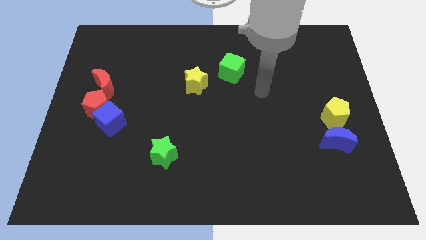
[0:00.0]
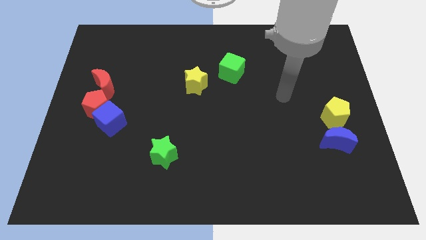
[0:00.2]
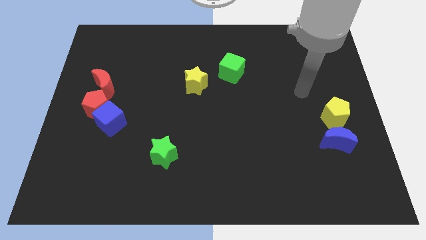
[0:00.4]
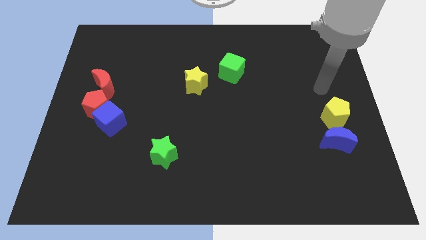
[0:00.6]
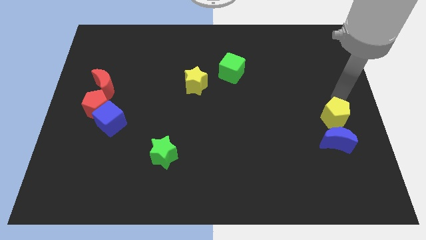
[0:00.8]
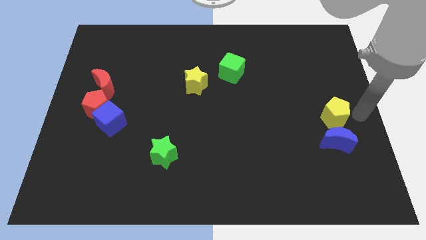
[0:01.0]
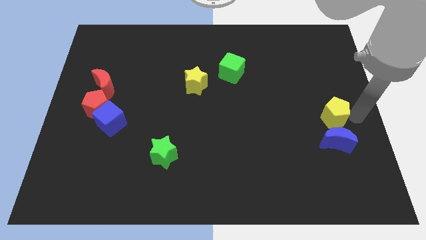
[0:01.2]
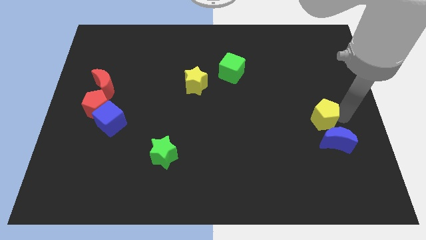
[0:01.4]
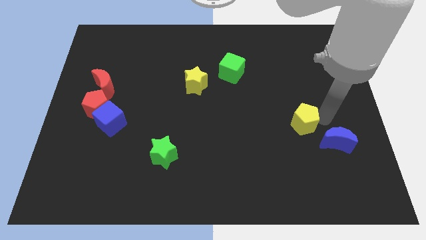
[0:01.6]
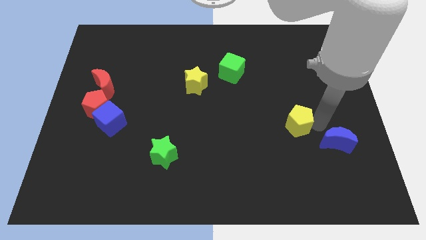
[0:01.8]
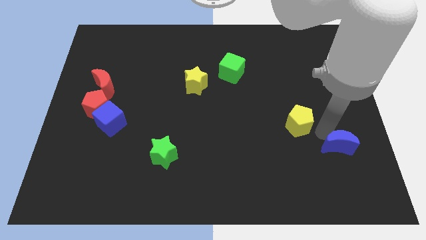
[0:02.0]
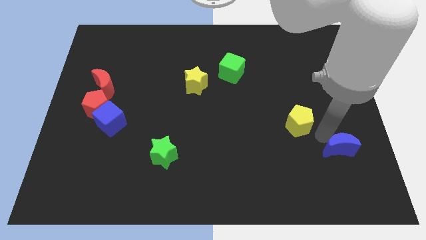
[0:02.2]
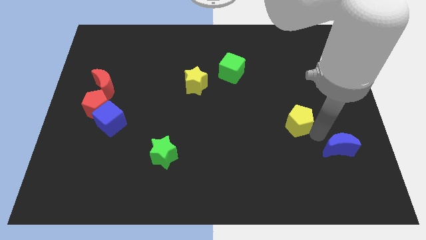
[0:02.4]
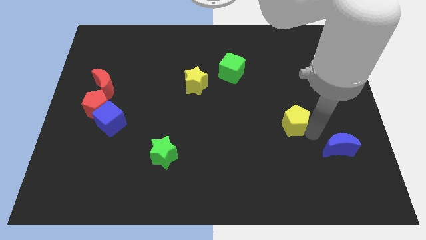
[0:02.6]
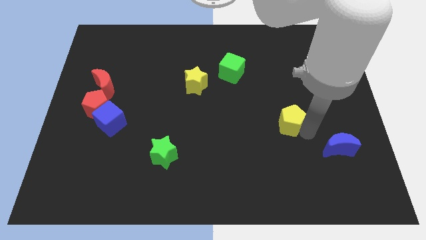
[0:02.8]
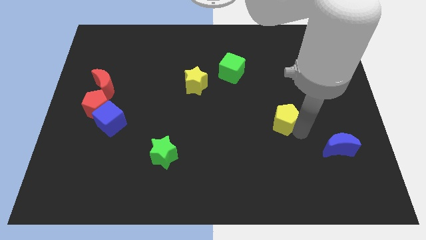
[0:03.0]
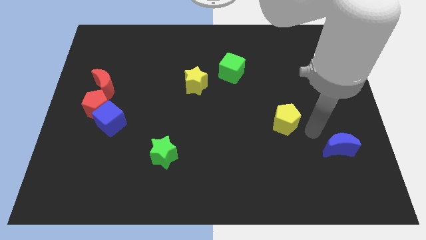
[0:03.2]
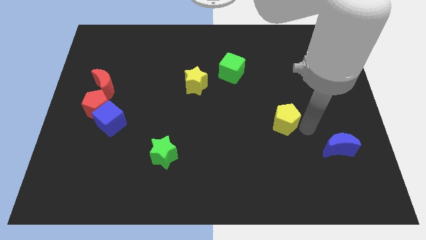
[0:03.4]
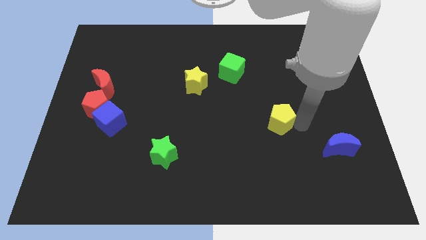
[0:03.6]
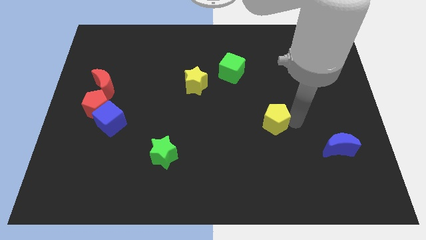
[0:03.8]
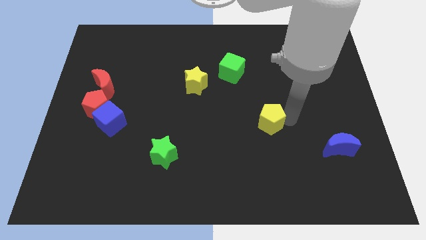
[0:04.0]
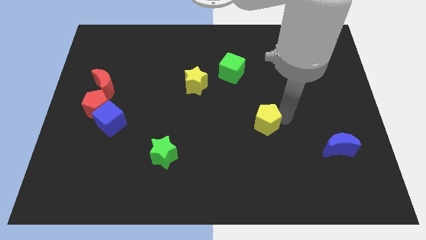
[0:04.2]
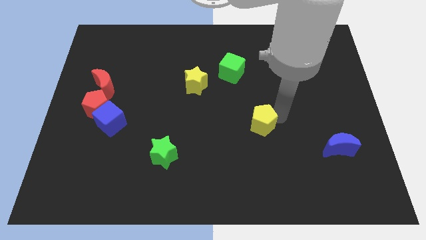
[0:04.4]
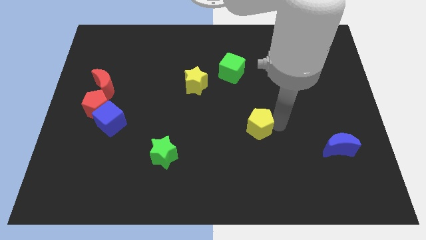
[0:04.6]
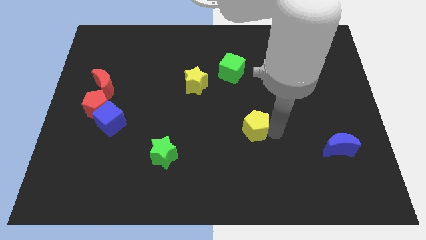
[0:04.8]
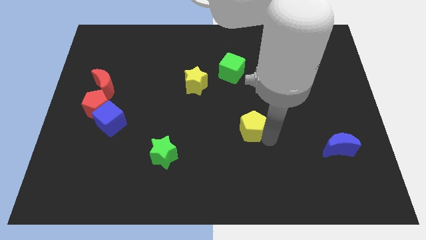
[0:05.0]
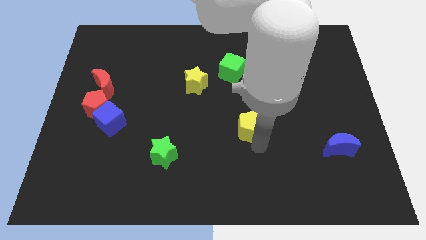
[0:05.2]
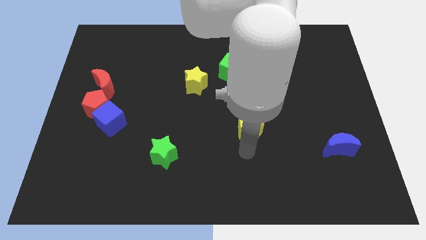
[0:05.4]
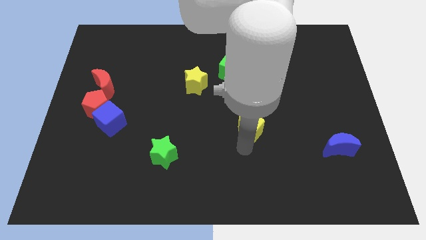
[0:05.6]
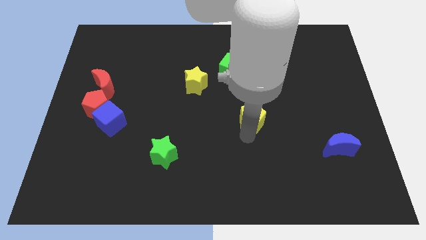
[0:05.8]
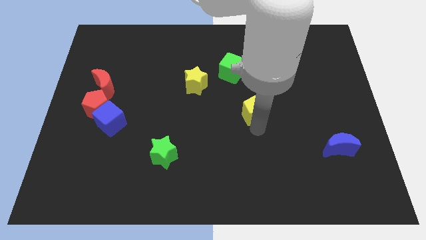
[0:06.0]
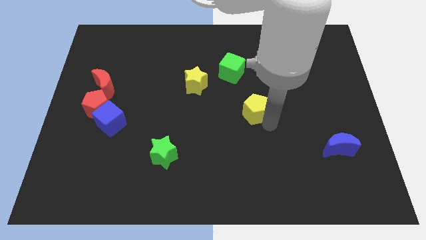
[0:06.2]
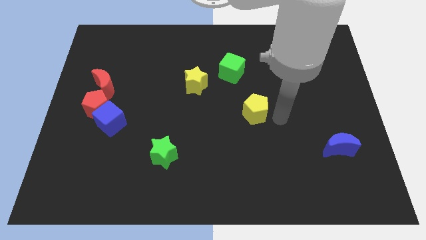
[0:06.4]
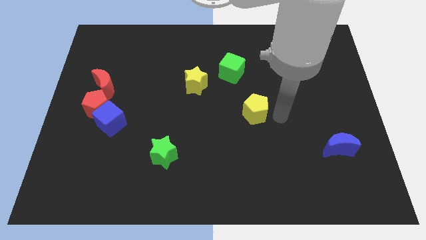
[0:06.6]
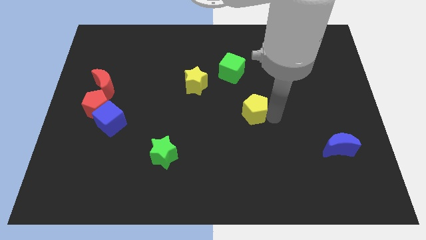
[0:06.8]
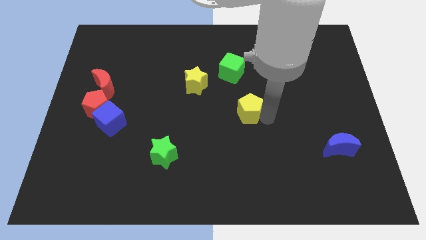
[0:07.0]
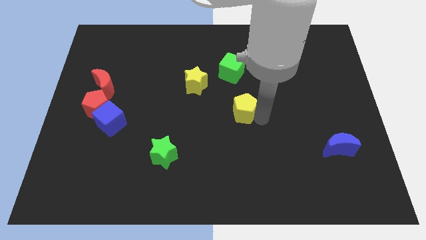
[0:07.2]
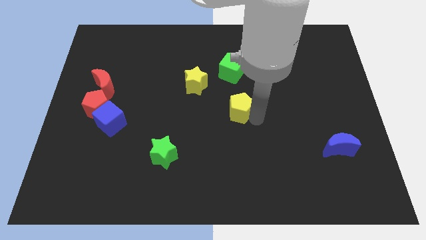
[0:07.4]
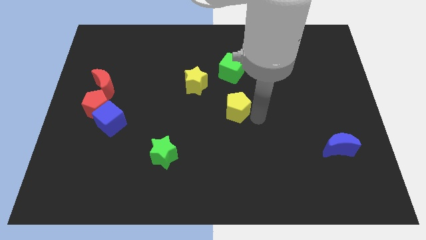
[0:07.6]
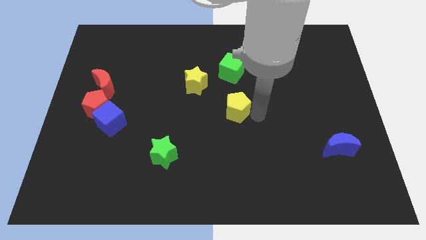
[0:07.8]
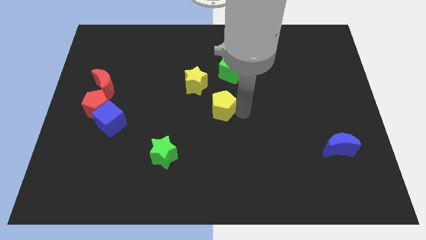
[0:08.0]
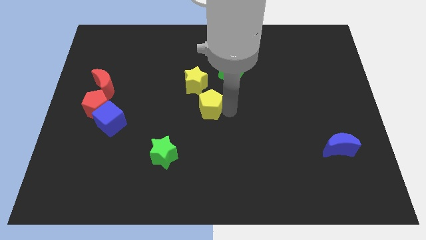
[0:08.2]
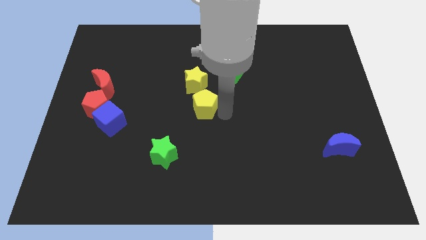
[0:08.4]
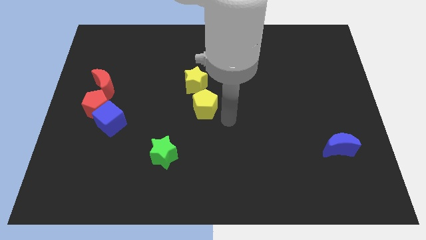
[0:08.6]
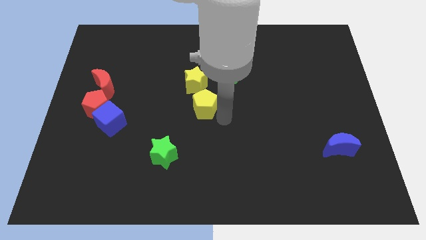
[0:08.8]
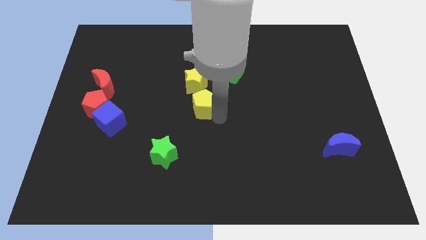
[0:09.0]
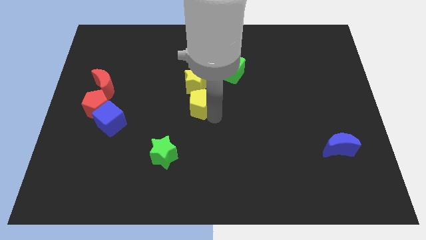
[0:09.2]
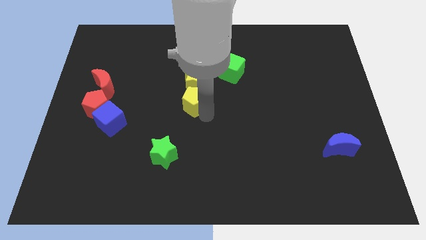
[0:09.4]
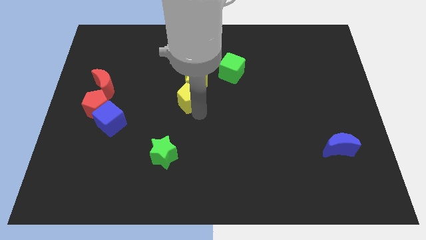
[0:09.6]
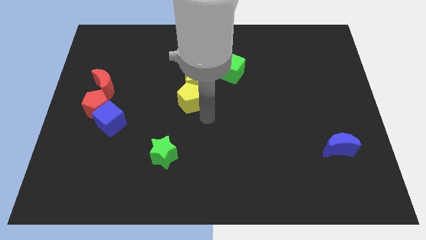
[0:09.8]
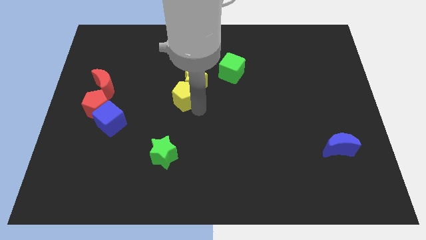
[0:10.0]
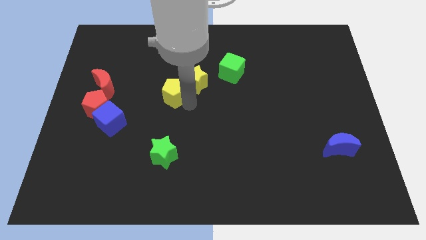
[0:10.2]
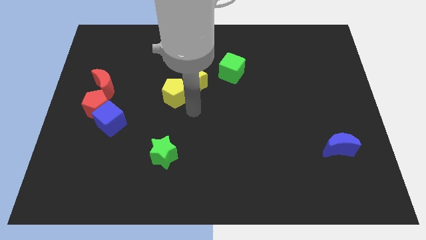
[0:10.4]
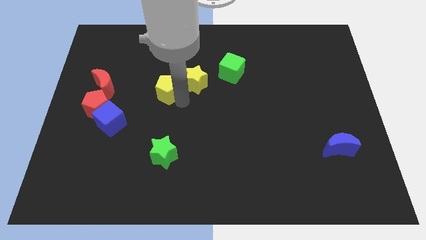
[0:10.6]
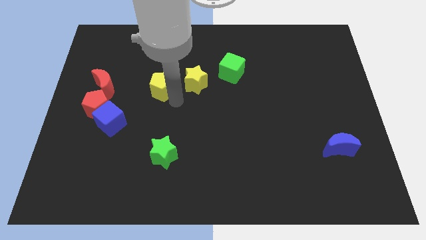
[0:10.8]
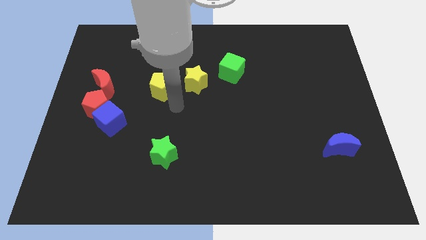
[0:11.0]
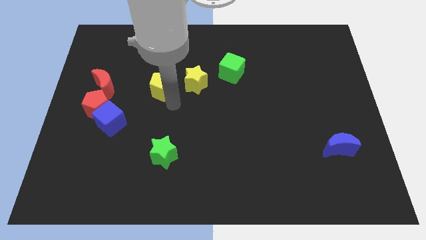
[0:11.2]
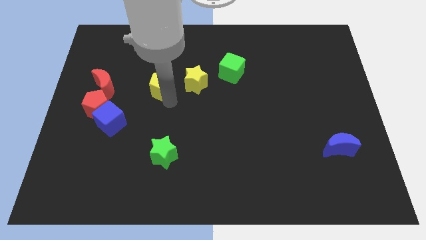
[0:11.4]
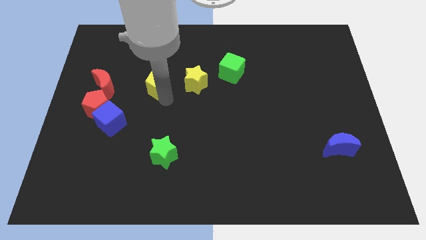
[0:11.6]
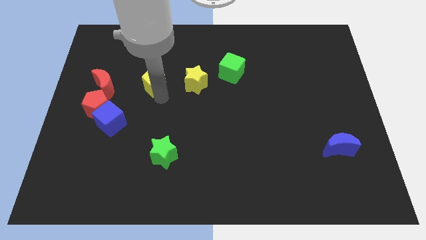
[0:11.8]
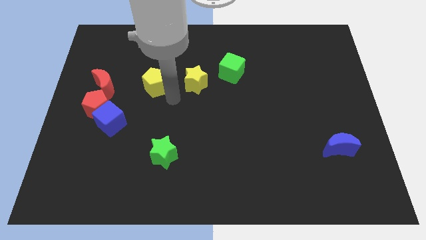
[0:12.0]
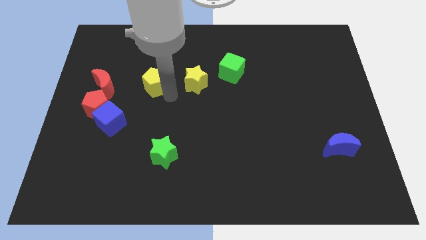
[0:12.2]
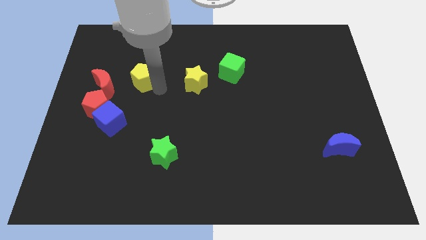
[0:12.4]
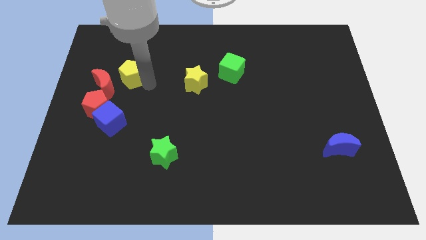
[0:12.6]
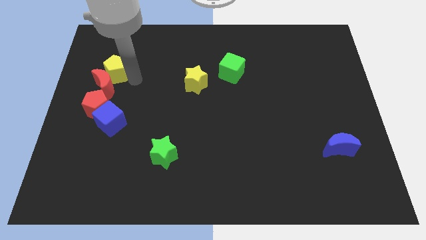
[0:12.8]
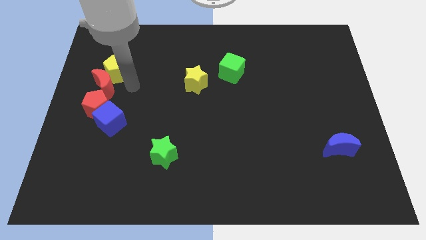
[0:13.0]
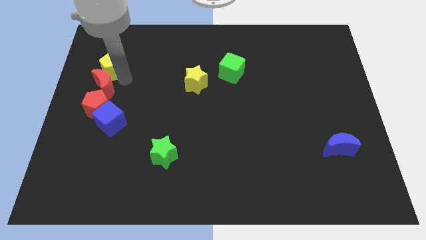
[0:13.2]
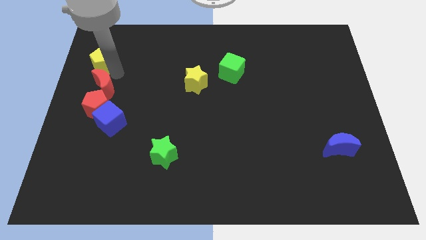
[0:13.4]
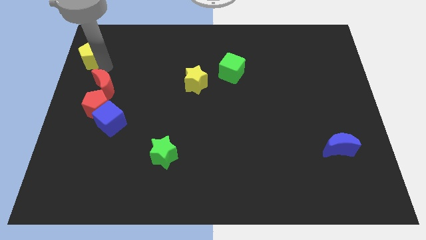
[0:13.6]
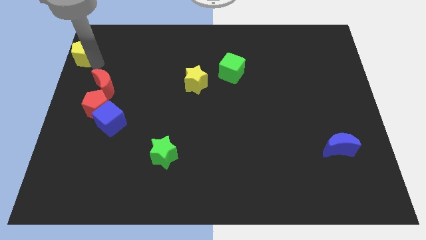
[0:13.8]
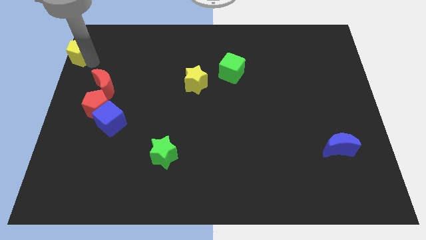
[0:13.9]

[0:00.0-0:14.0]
move the yellow pentagon to the top left corner
